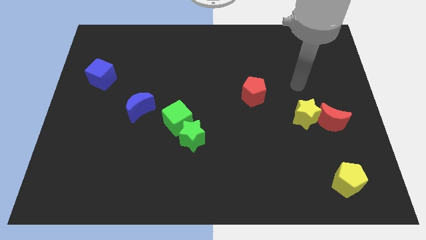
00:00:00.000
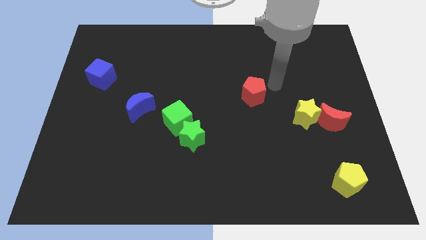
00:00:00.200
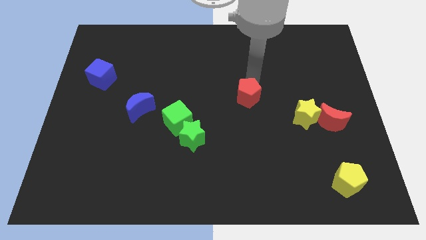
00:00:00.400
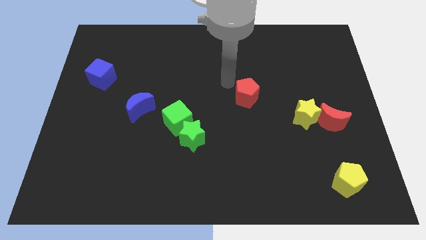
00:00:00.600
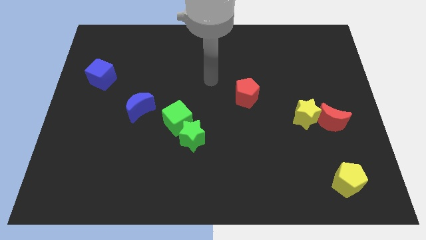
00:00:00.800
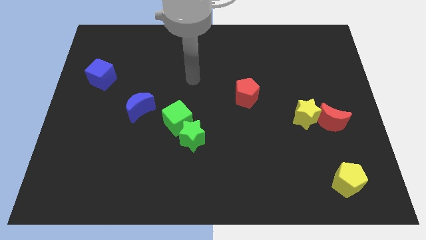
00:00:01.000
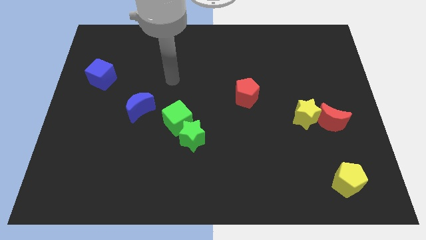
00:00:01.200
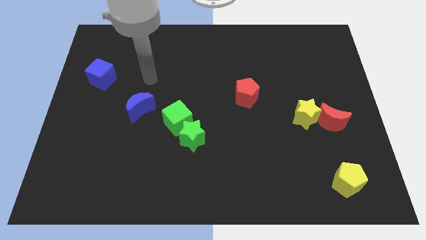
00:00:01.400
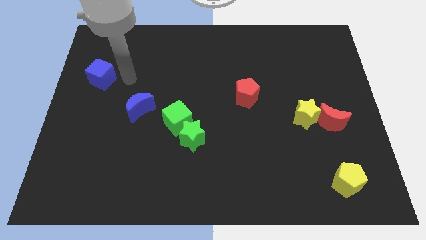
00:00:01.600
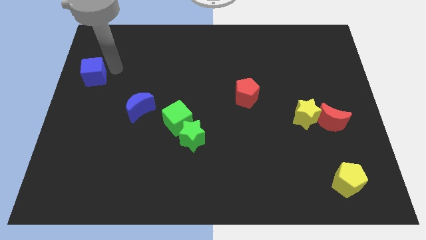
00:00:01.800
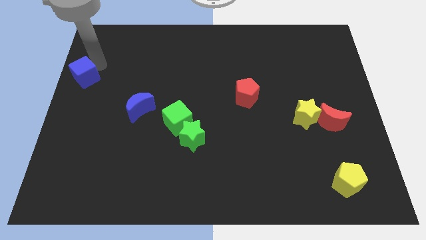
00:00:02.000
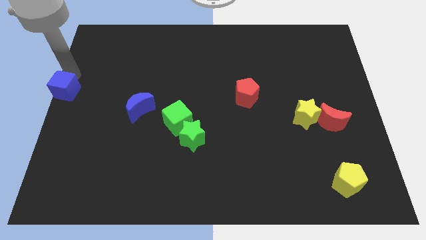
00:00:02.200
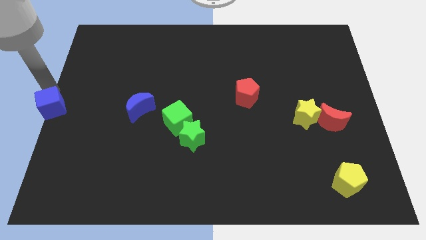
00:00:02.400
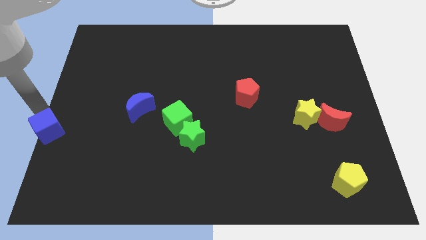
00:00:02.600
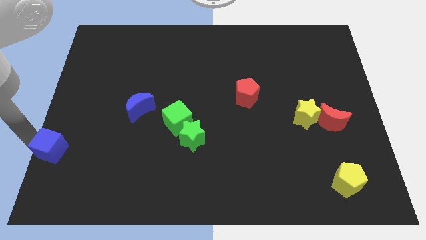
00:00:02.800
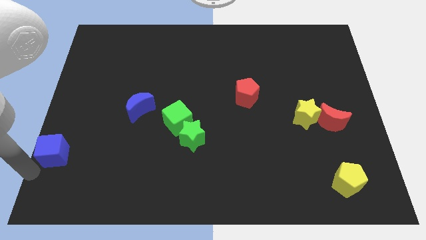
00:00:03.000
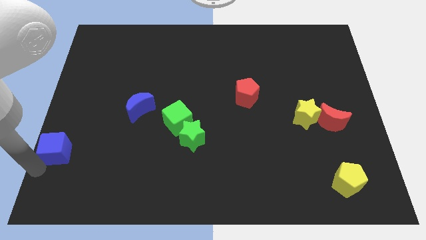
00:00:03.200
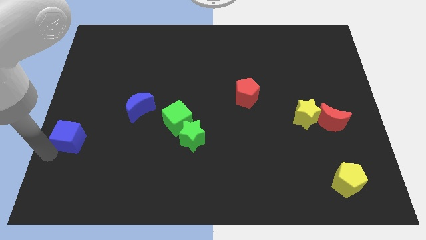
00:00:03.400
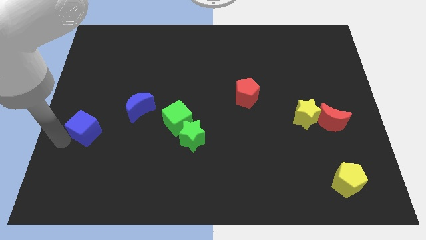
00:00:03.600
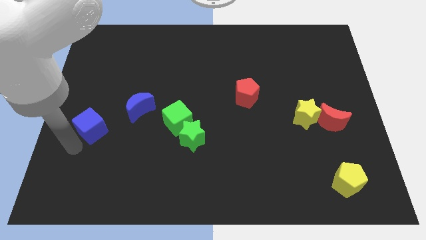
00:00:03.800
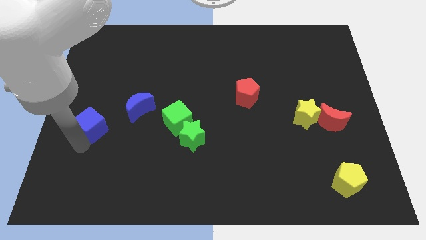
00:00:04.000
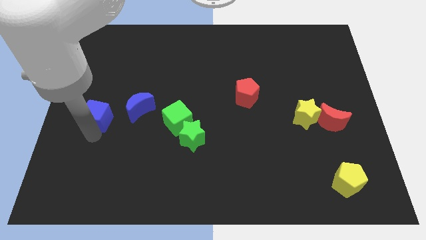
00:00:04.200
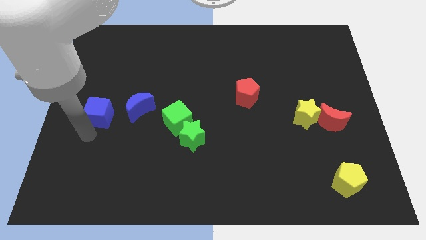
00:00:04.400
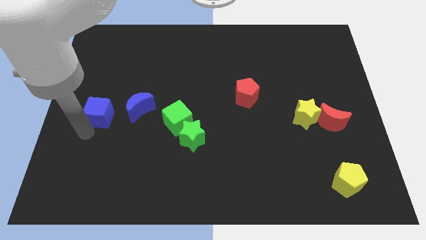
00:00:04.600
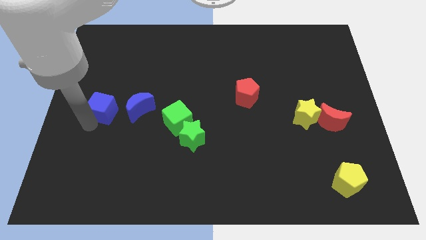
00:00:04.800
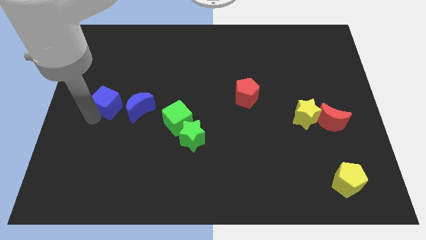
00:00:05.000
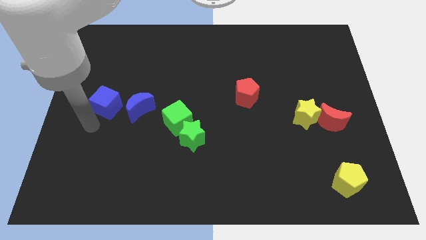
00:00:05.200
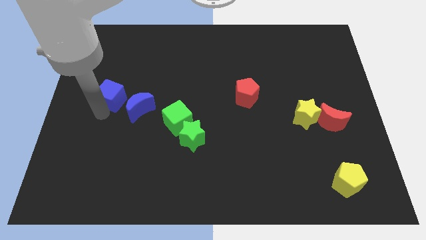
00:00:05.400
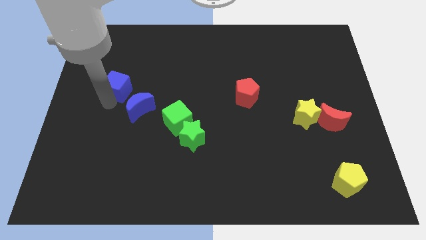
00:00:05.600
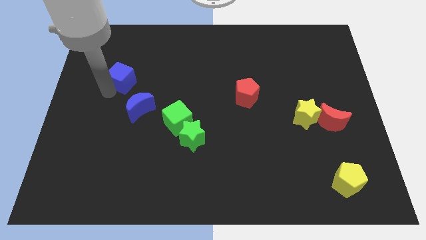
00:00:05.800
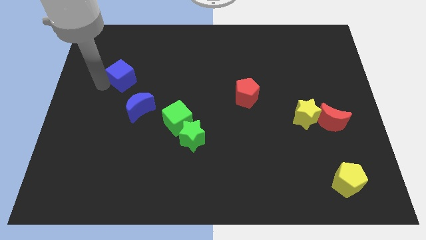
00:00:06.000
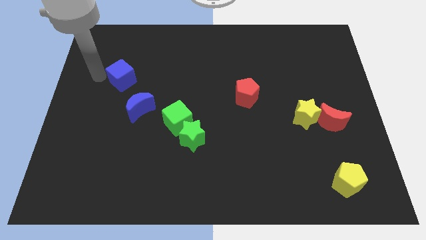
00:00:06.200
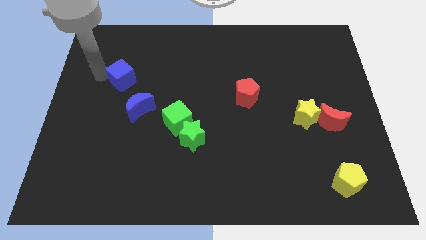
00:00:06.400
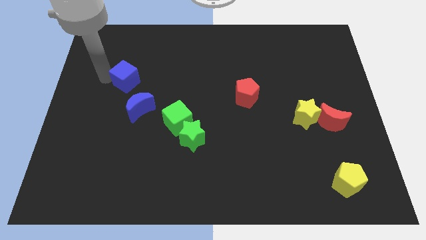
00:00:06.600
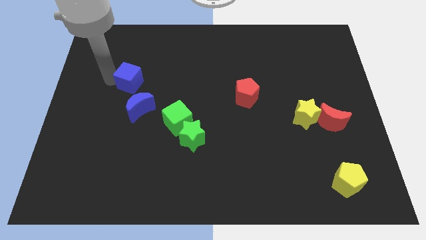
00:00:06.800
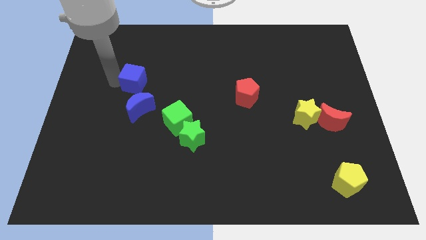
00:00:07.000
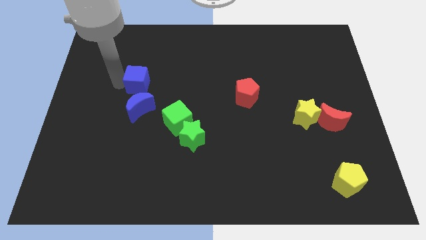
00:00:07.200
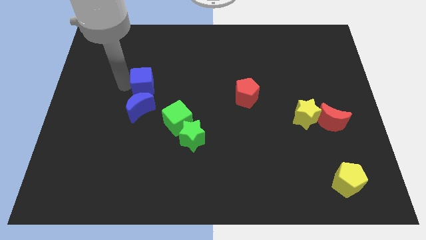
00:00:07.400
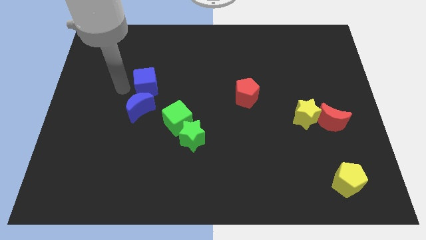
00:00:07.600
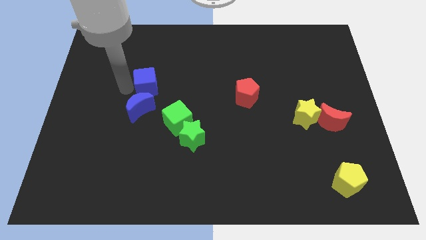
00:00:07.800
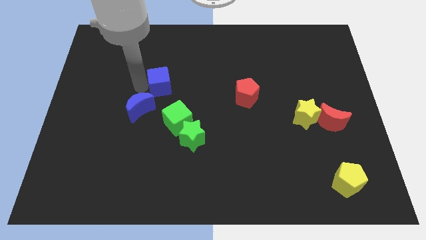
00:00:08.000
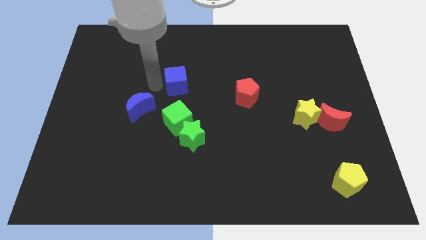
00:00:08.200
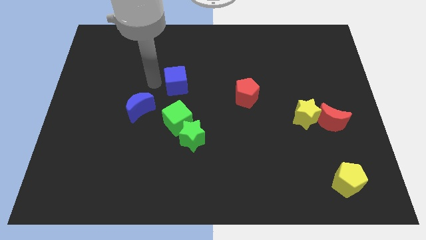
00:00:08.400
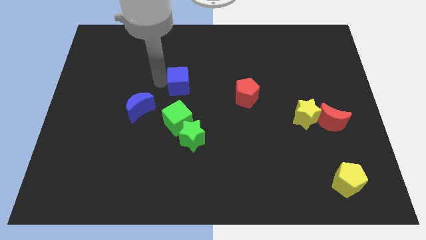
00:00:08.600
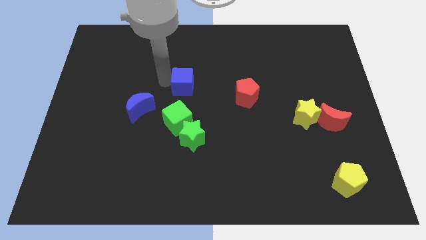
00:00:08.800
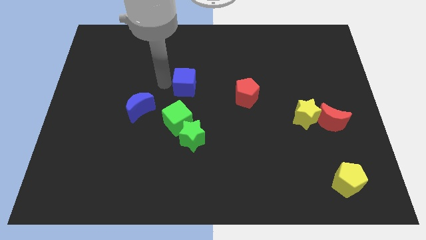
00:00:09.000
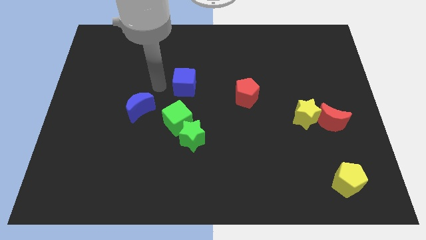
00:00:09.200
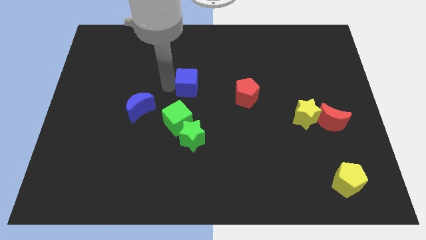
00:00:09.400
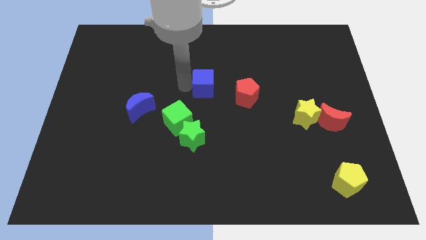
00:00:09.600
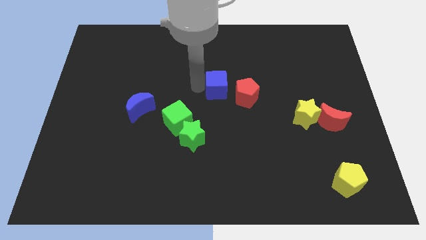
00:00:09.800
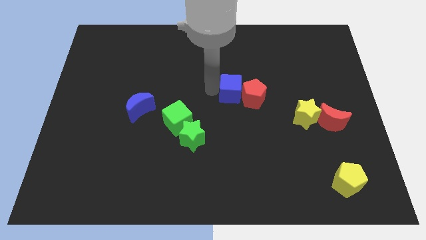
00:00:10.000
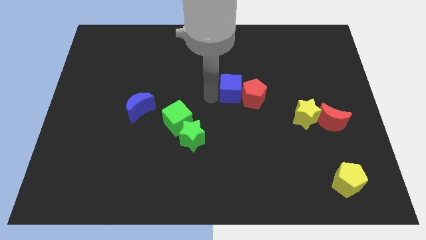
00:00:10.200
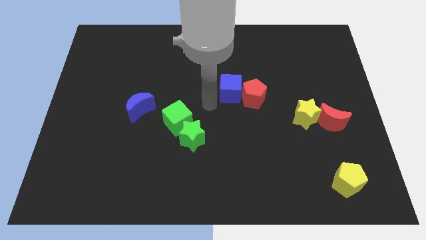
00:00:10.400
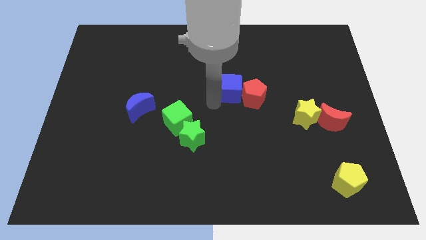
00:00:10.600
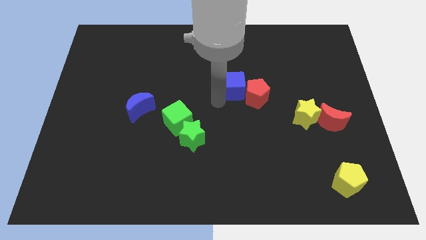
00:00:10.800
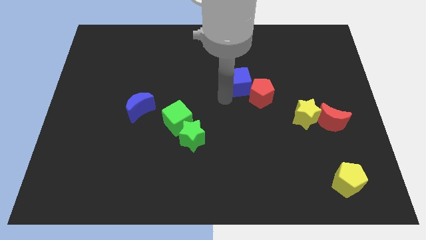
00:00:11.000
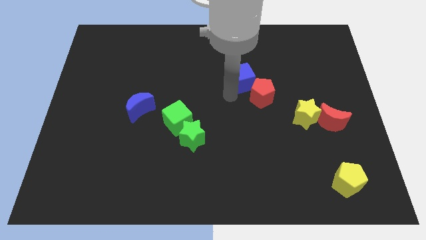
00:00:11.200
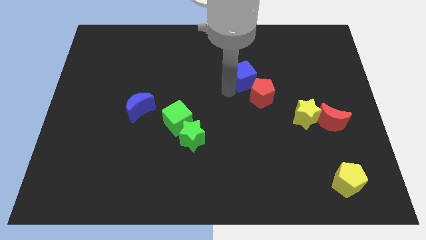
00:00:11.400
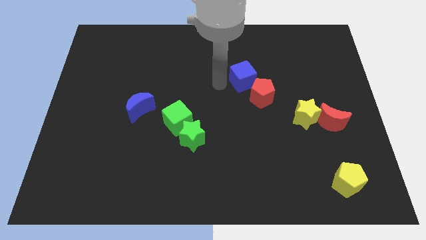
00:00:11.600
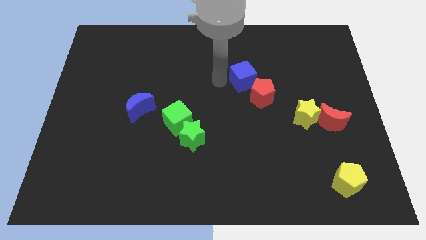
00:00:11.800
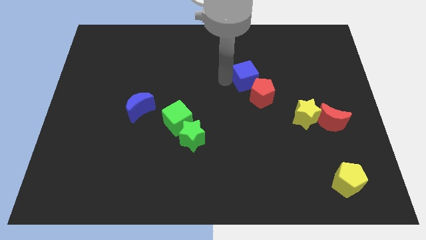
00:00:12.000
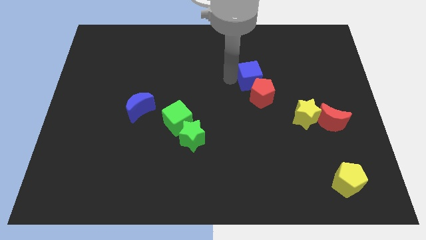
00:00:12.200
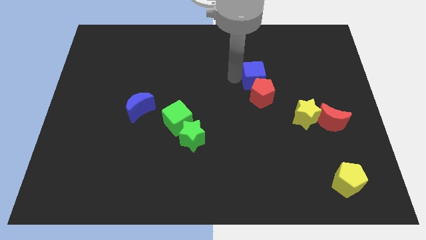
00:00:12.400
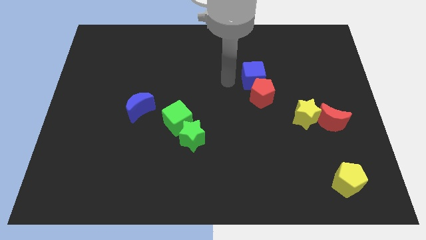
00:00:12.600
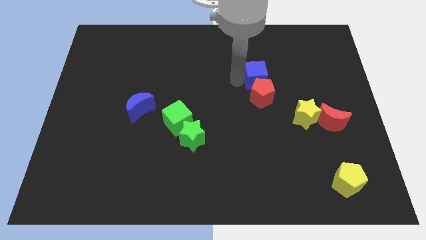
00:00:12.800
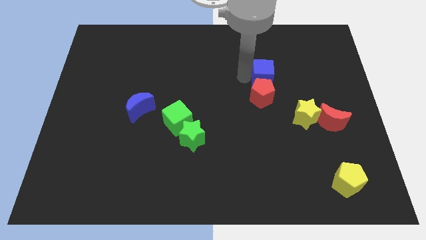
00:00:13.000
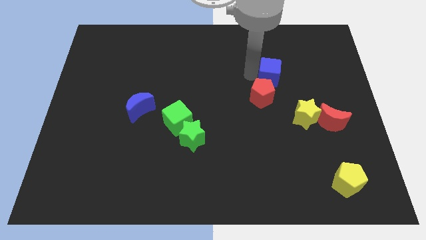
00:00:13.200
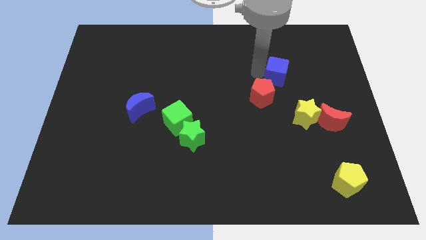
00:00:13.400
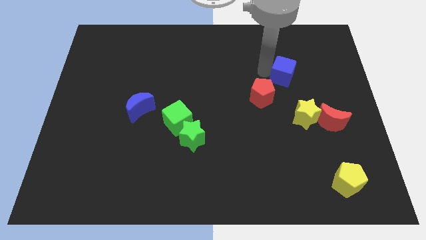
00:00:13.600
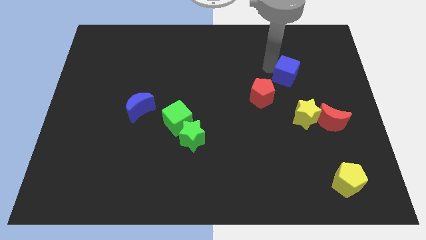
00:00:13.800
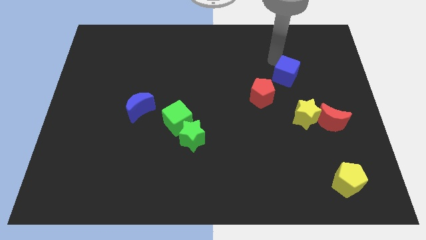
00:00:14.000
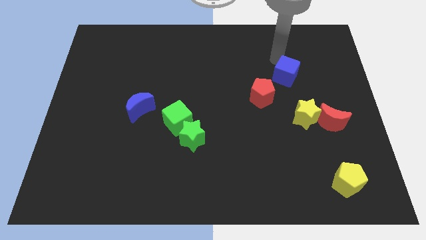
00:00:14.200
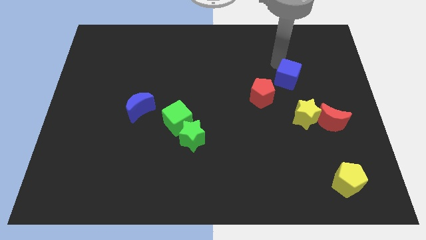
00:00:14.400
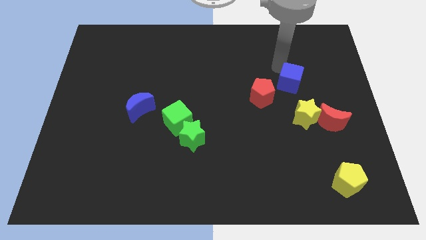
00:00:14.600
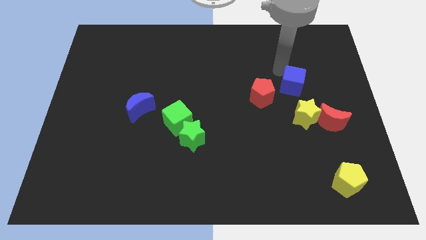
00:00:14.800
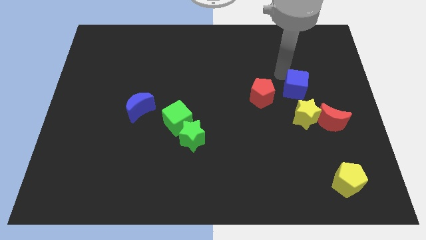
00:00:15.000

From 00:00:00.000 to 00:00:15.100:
move the blue cube to the top left side of the red moon
